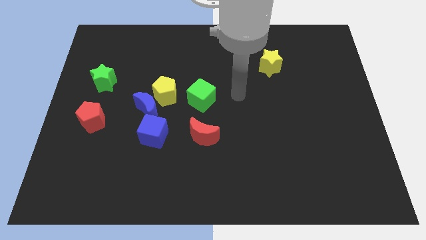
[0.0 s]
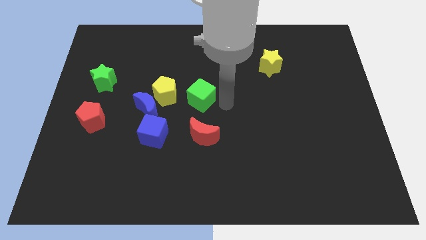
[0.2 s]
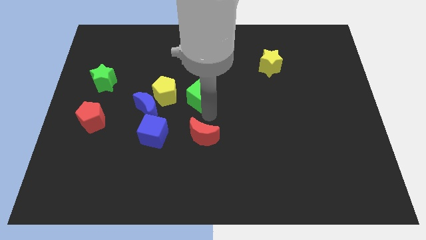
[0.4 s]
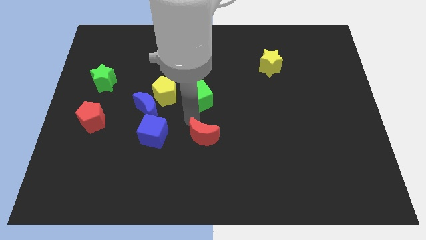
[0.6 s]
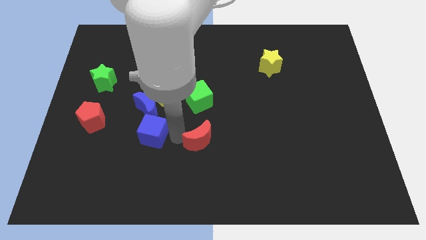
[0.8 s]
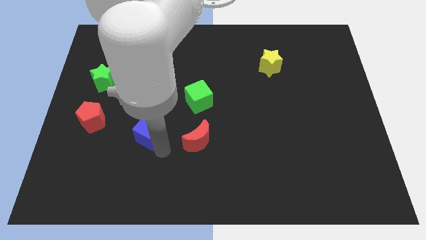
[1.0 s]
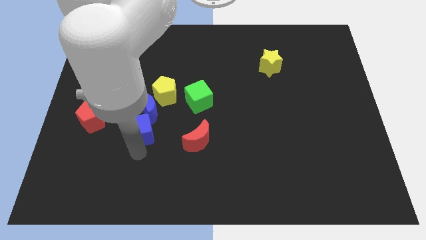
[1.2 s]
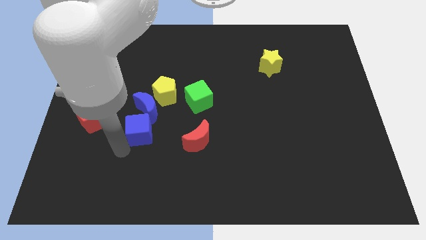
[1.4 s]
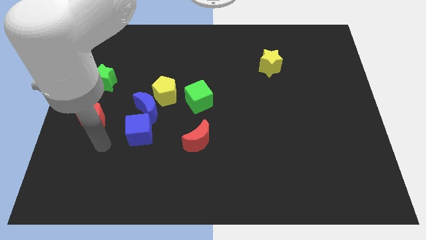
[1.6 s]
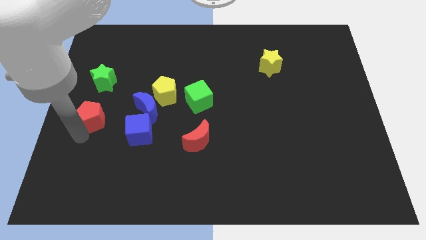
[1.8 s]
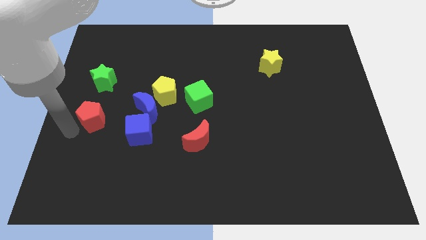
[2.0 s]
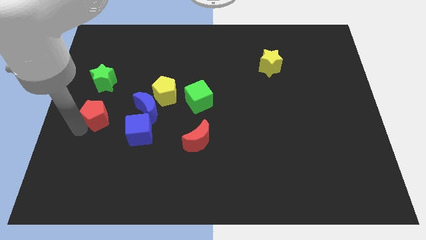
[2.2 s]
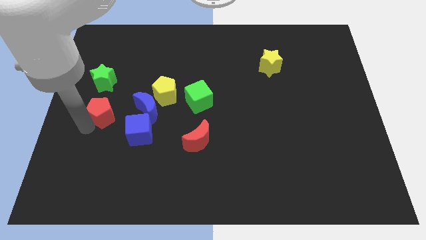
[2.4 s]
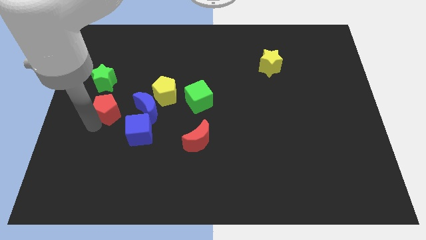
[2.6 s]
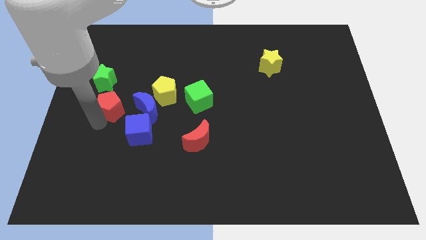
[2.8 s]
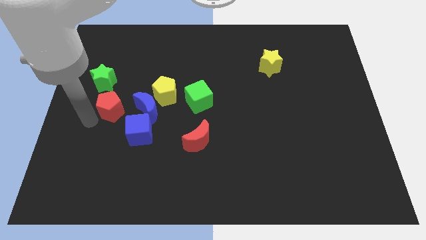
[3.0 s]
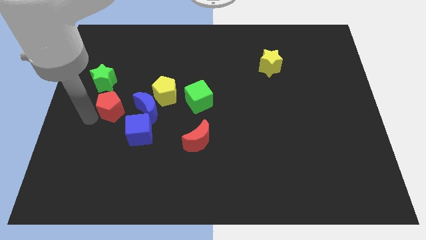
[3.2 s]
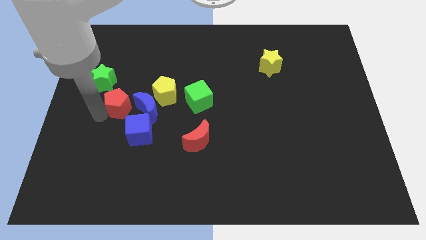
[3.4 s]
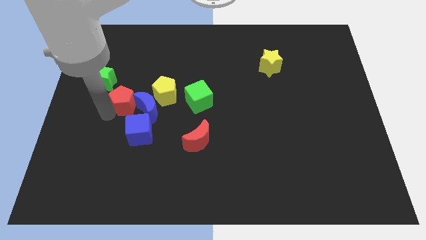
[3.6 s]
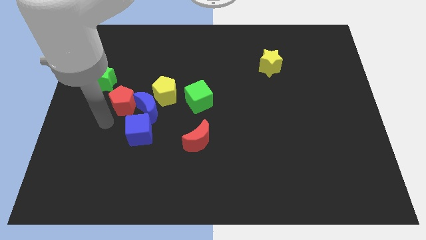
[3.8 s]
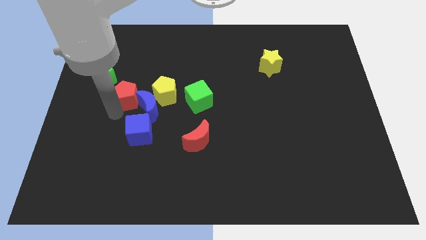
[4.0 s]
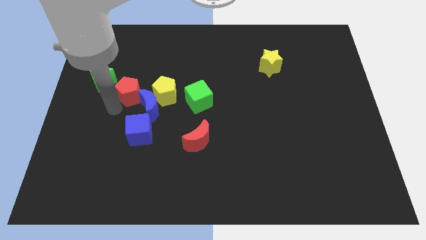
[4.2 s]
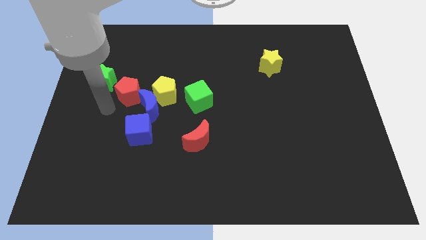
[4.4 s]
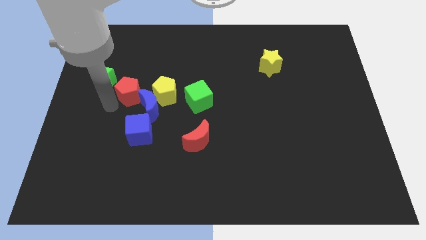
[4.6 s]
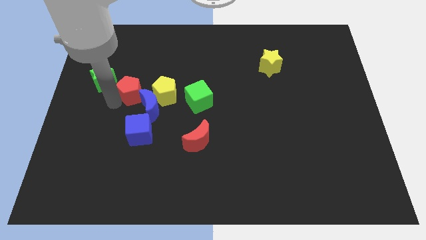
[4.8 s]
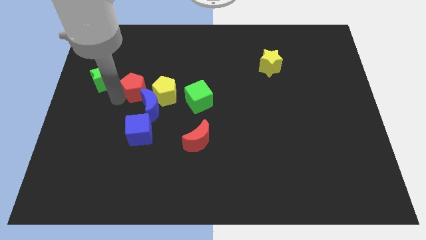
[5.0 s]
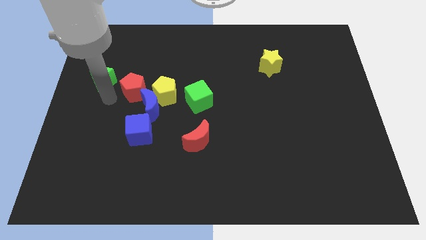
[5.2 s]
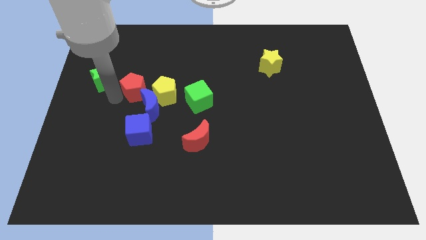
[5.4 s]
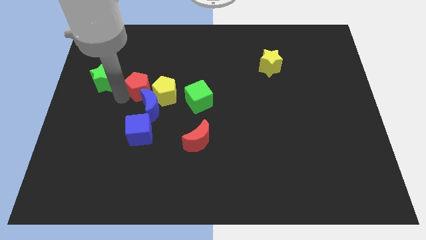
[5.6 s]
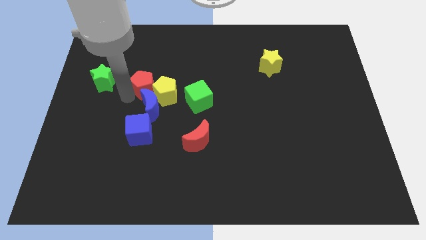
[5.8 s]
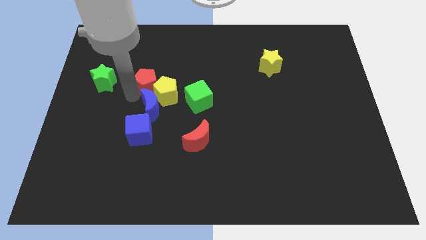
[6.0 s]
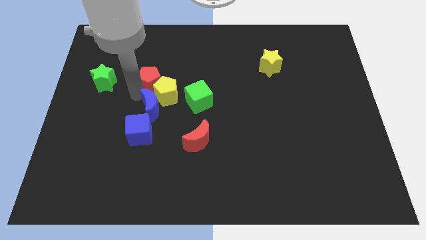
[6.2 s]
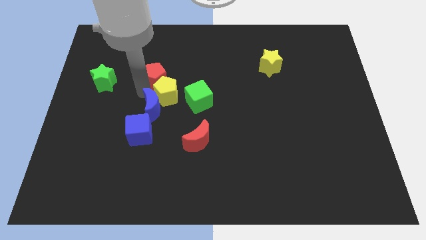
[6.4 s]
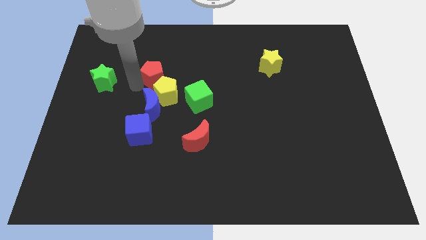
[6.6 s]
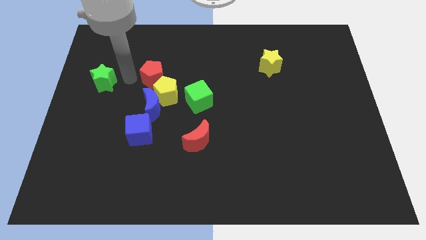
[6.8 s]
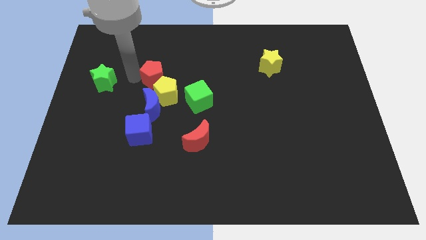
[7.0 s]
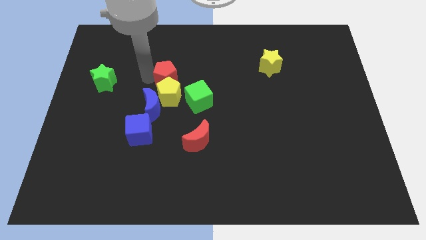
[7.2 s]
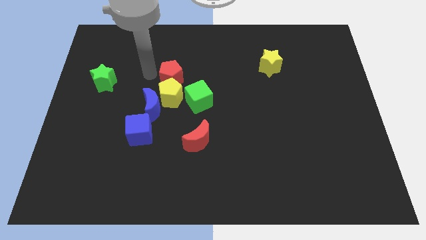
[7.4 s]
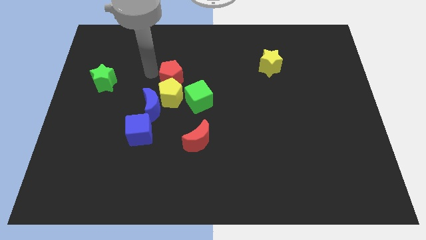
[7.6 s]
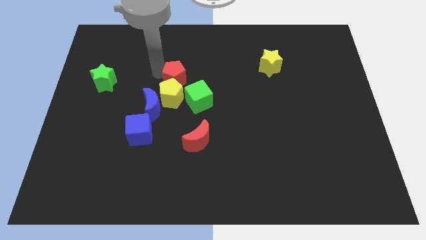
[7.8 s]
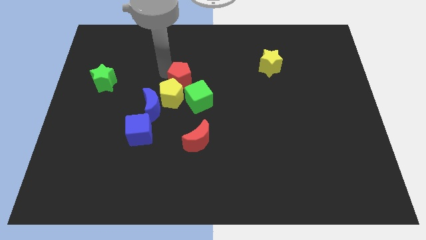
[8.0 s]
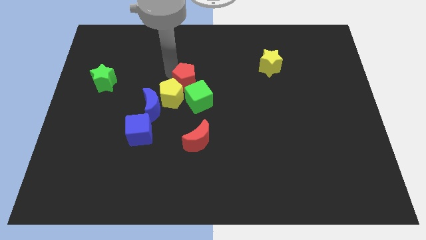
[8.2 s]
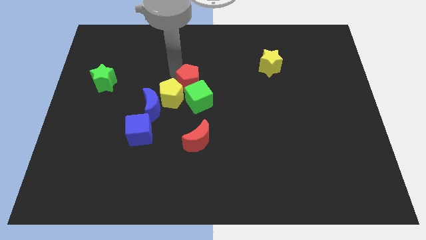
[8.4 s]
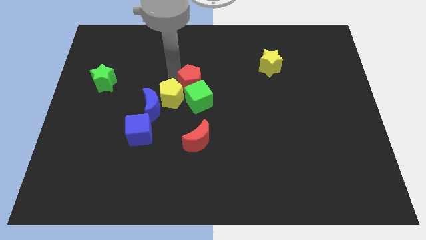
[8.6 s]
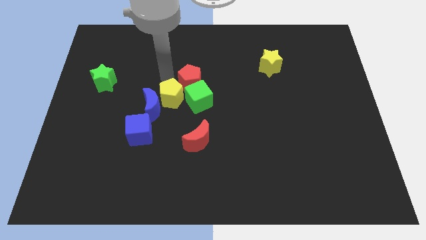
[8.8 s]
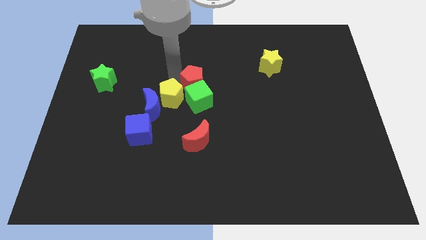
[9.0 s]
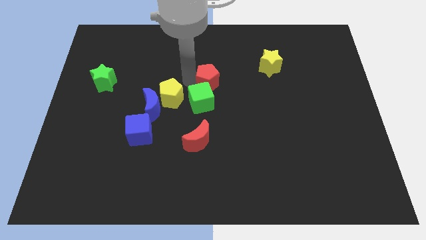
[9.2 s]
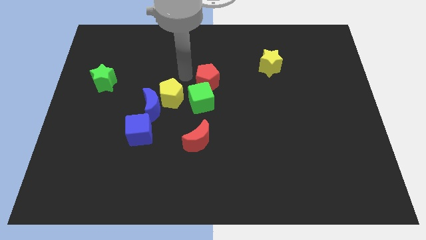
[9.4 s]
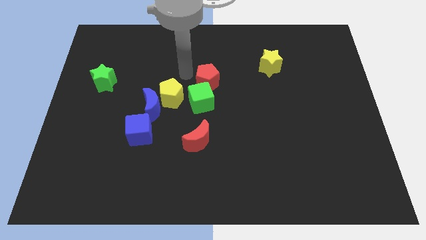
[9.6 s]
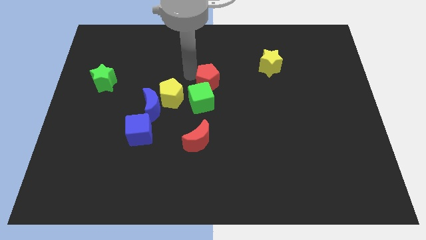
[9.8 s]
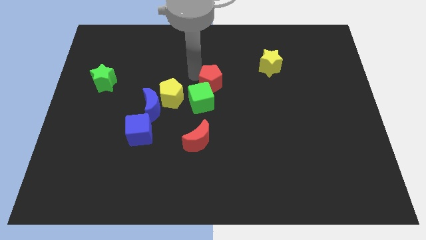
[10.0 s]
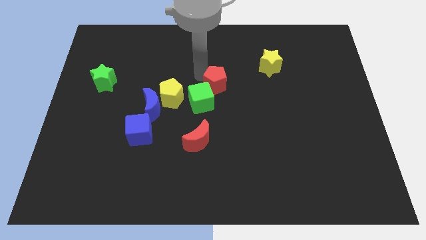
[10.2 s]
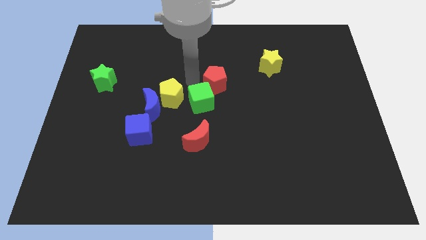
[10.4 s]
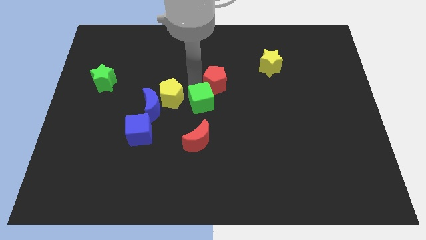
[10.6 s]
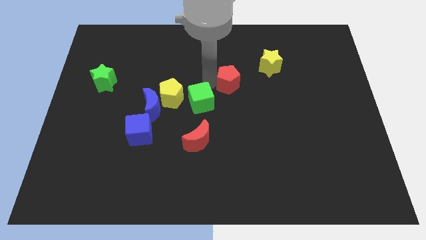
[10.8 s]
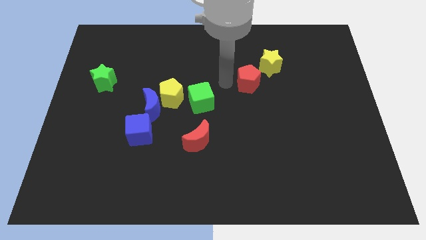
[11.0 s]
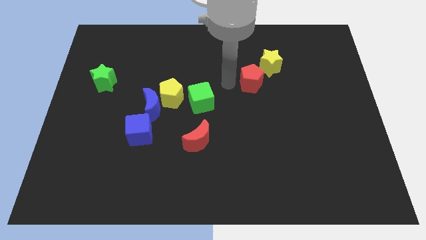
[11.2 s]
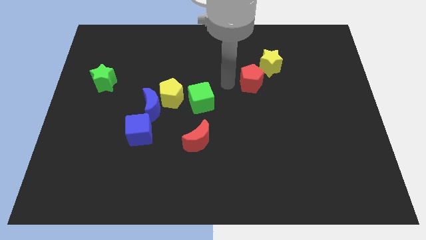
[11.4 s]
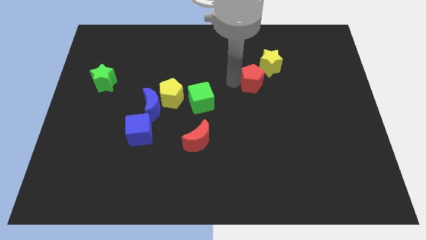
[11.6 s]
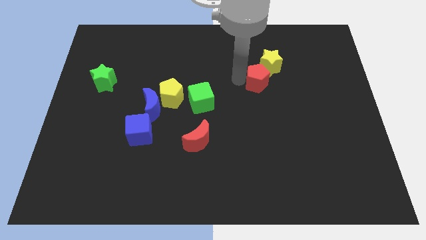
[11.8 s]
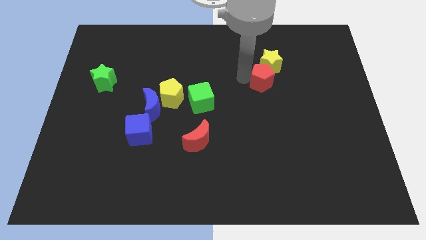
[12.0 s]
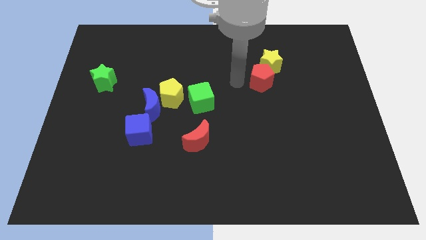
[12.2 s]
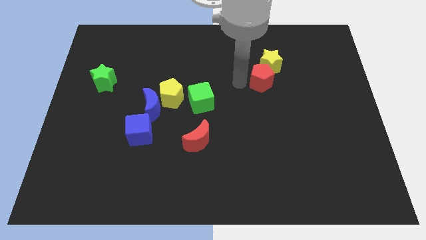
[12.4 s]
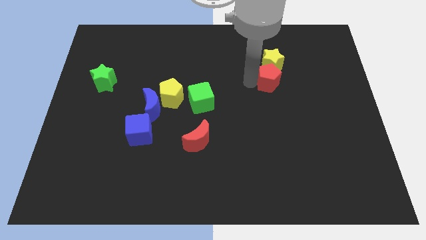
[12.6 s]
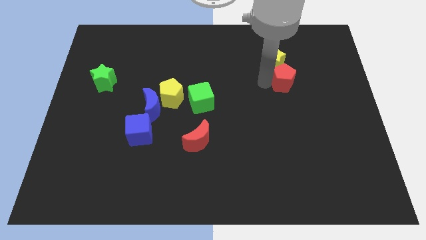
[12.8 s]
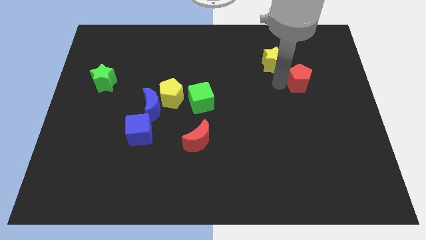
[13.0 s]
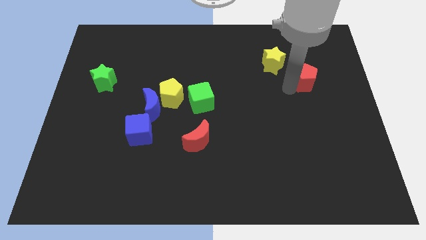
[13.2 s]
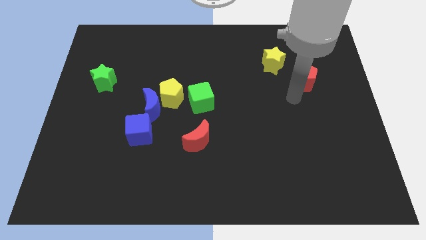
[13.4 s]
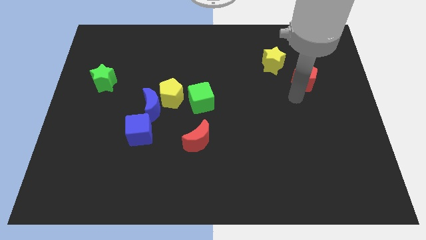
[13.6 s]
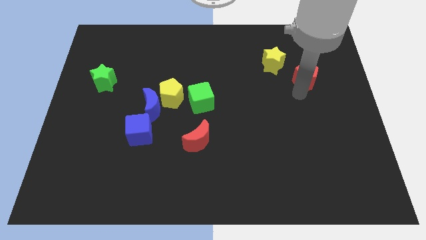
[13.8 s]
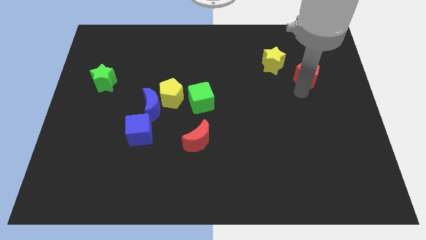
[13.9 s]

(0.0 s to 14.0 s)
push the red pentagon to the right of the yellow star

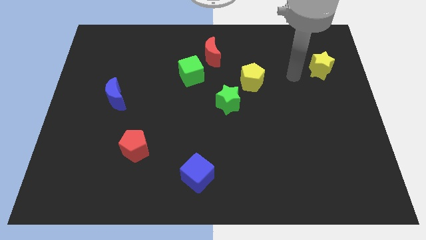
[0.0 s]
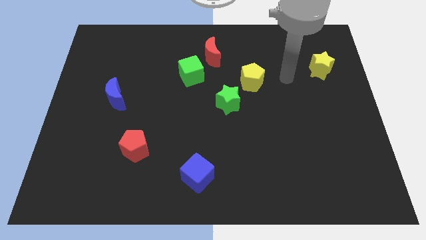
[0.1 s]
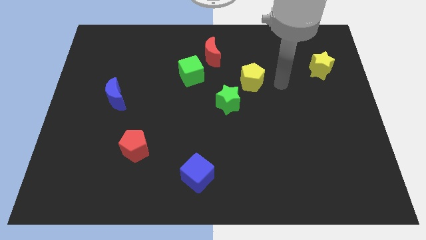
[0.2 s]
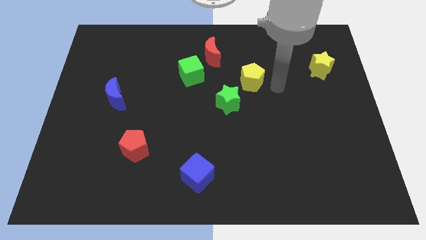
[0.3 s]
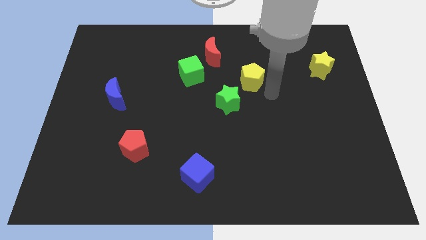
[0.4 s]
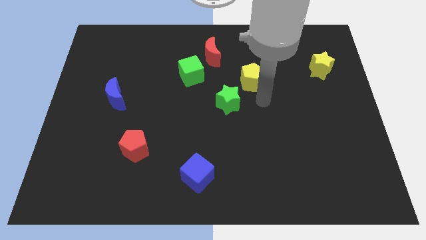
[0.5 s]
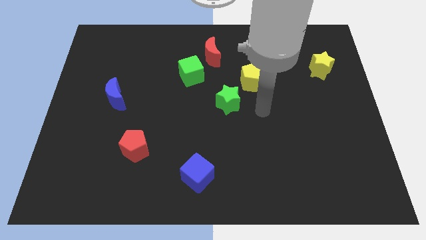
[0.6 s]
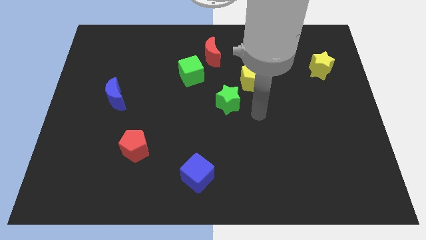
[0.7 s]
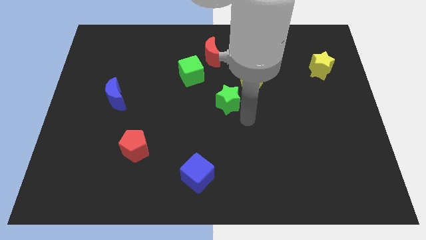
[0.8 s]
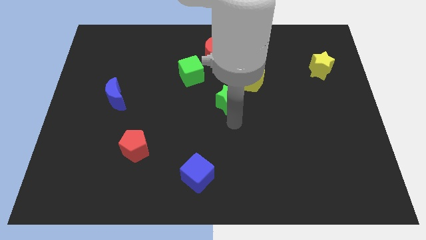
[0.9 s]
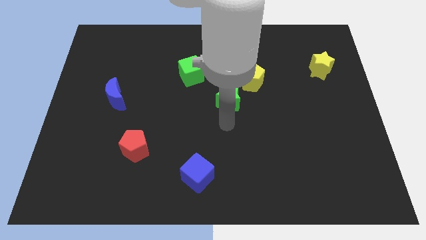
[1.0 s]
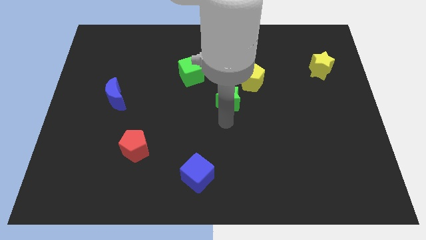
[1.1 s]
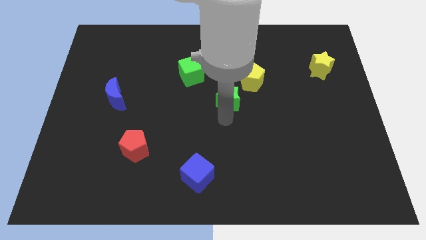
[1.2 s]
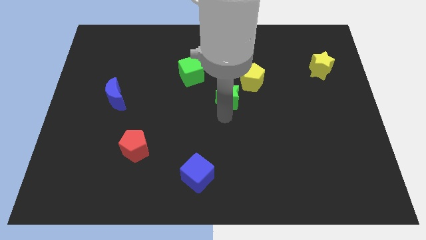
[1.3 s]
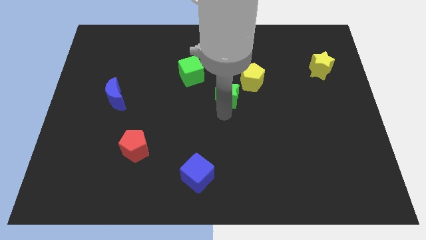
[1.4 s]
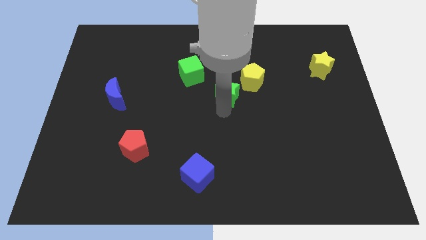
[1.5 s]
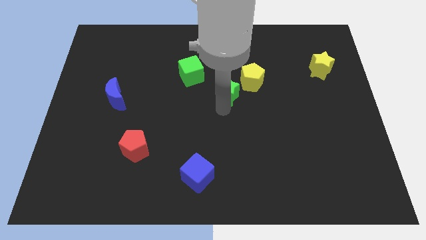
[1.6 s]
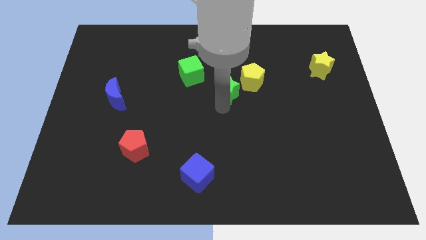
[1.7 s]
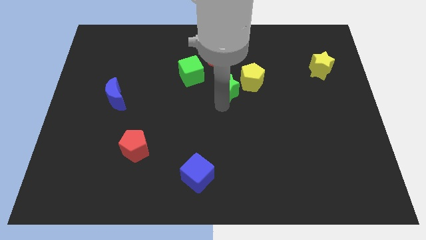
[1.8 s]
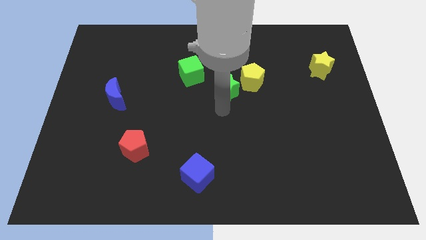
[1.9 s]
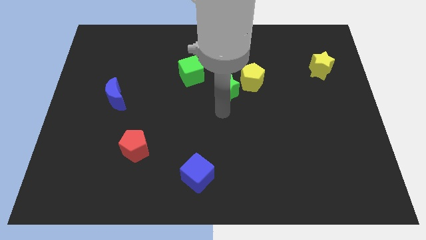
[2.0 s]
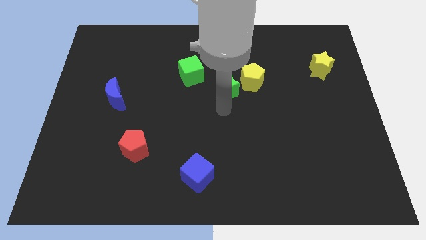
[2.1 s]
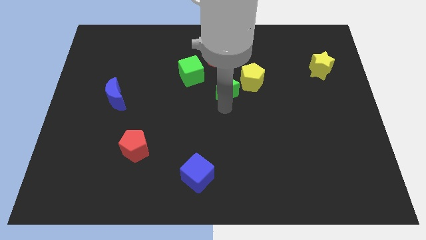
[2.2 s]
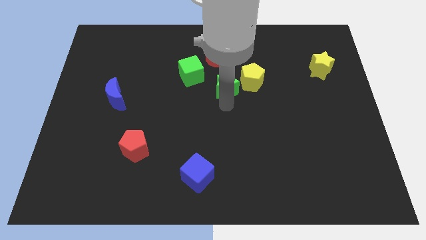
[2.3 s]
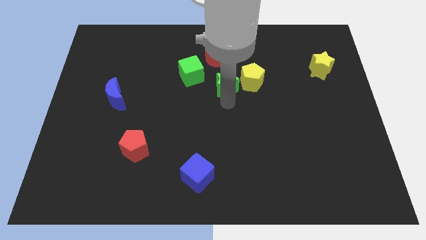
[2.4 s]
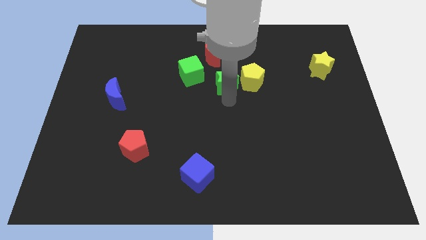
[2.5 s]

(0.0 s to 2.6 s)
put the green star diagonally down and to the right of the red moon
